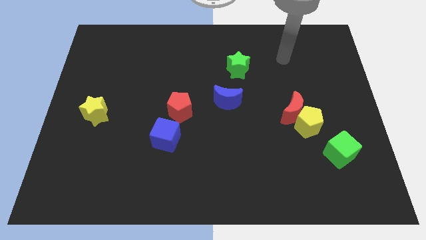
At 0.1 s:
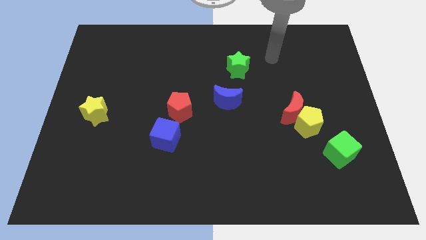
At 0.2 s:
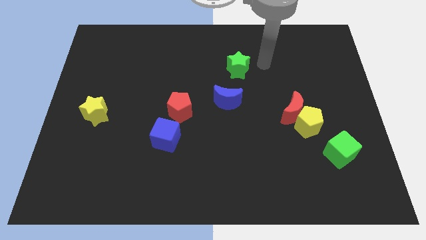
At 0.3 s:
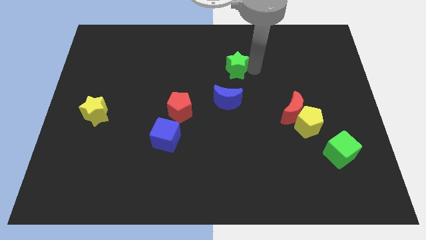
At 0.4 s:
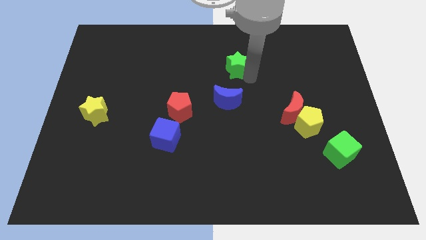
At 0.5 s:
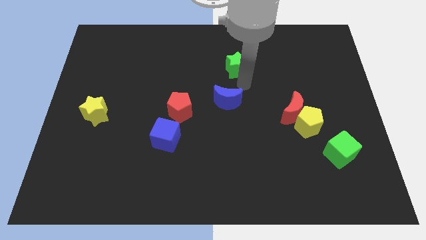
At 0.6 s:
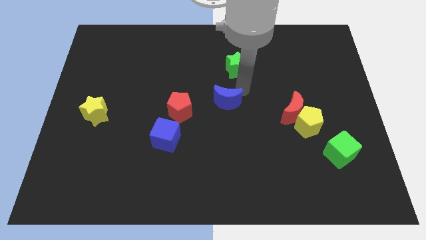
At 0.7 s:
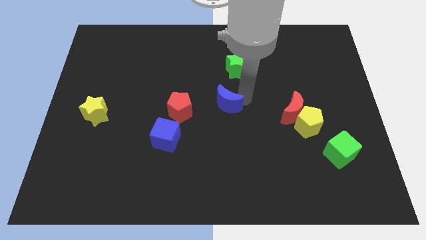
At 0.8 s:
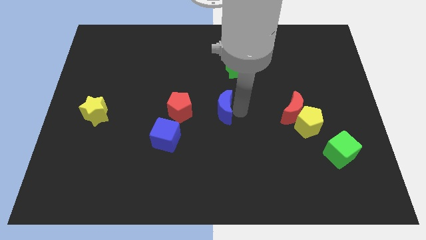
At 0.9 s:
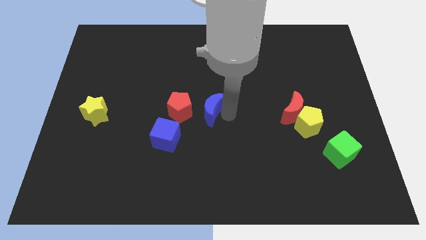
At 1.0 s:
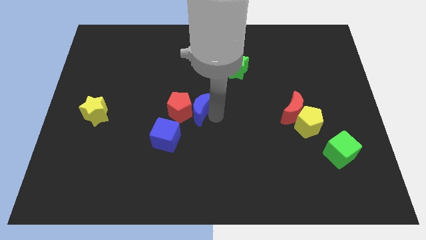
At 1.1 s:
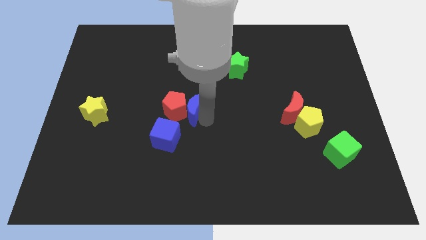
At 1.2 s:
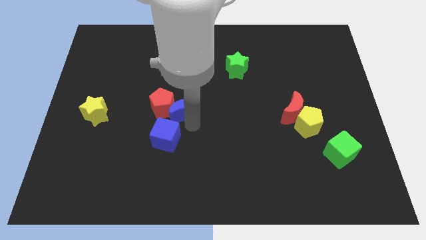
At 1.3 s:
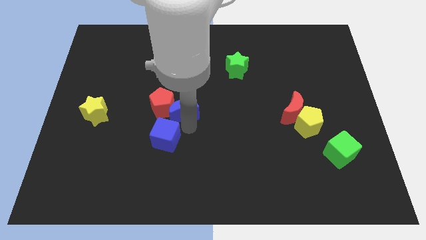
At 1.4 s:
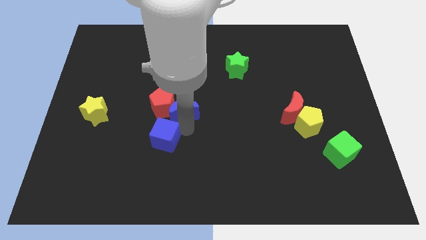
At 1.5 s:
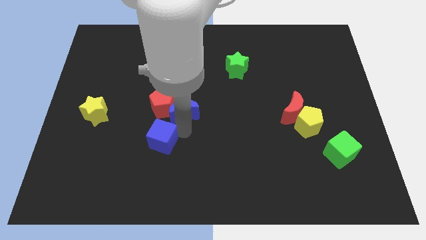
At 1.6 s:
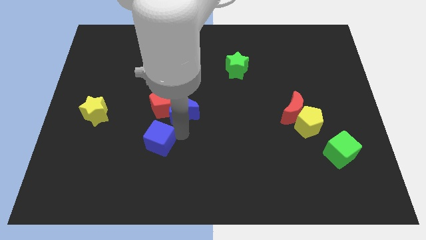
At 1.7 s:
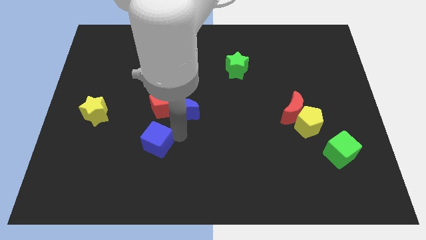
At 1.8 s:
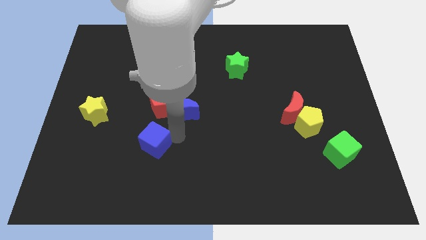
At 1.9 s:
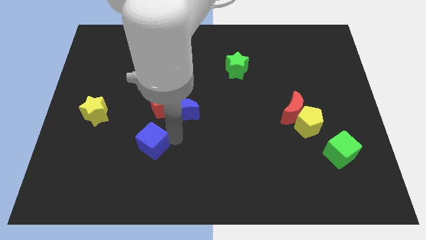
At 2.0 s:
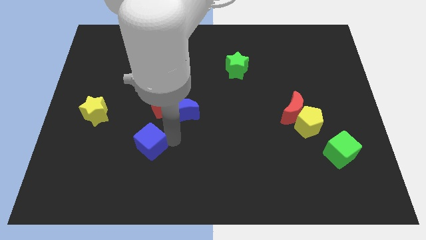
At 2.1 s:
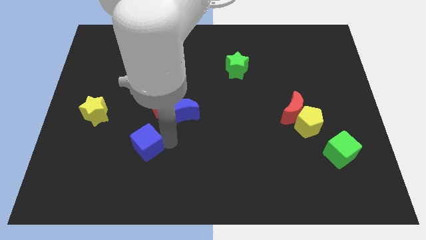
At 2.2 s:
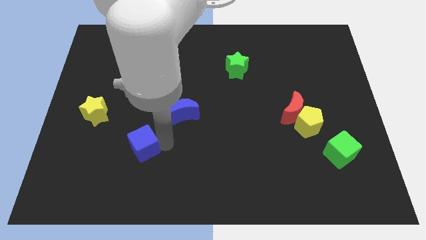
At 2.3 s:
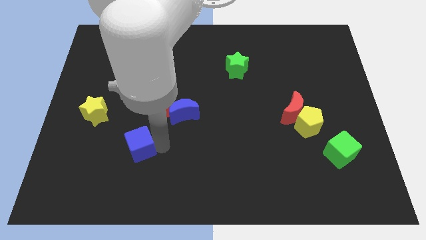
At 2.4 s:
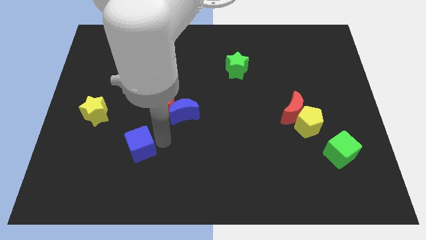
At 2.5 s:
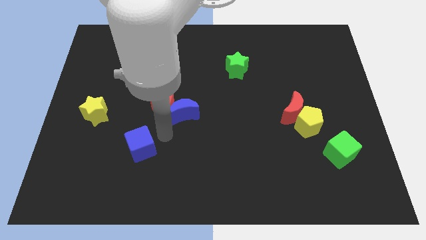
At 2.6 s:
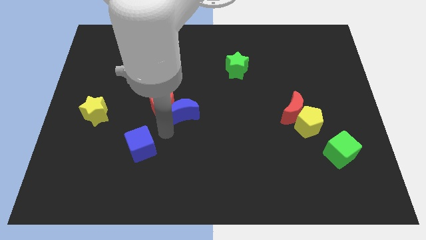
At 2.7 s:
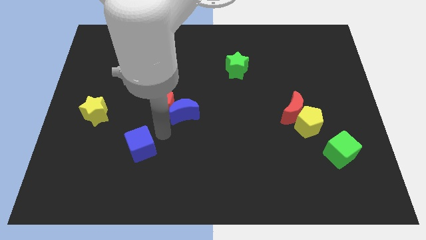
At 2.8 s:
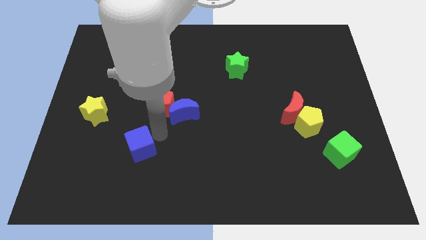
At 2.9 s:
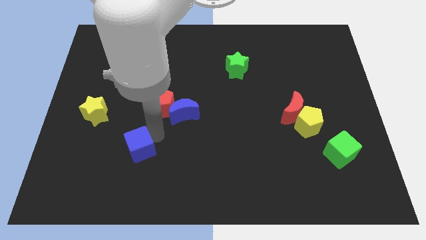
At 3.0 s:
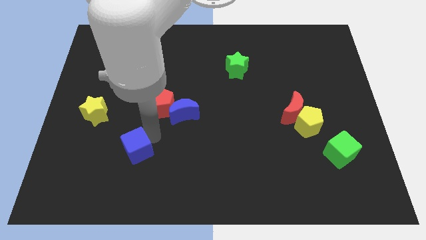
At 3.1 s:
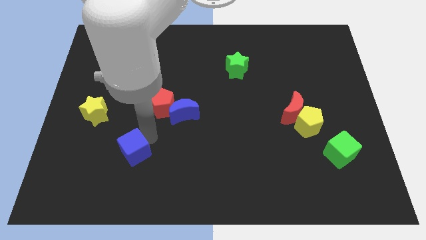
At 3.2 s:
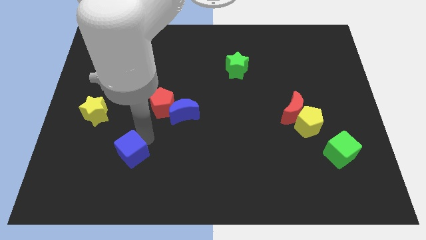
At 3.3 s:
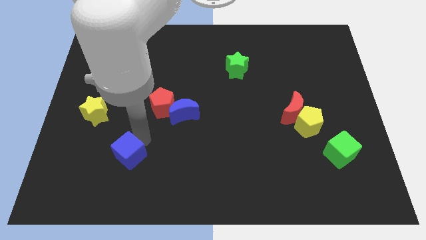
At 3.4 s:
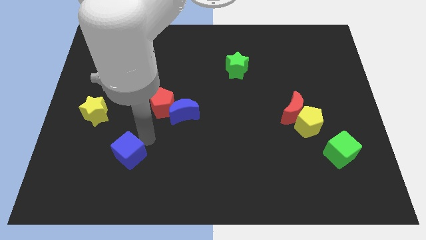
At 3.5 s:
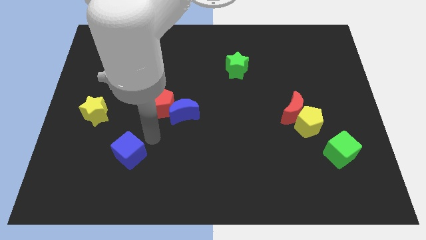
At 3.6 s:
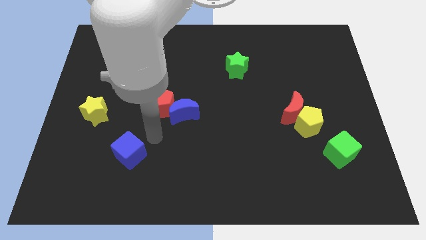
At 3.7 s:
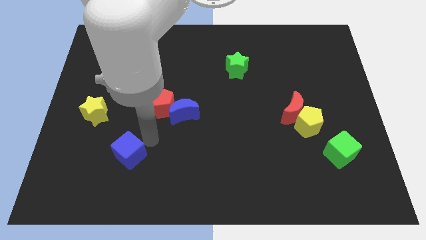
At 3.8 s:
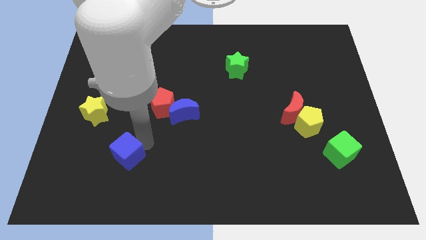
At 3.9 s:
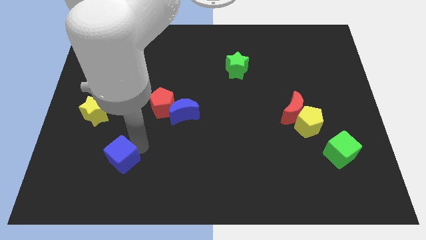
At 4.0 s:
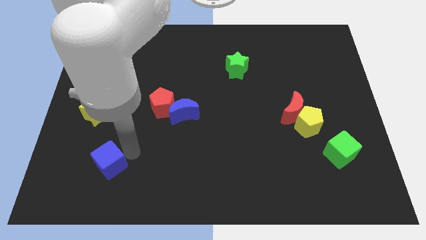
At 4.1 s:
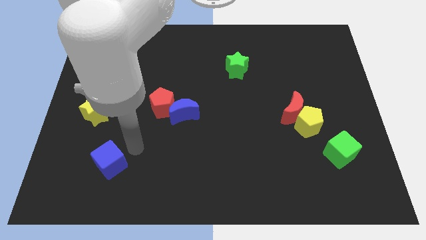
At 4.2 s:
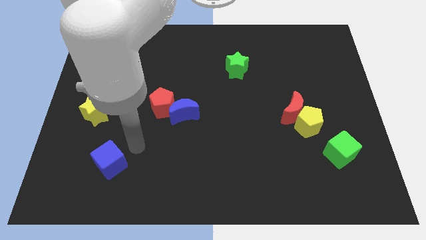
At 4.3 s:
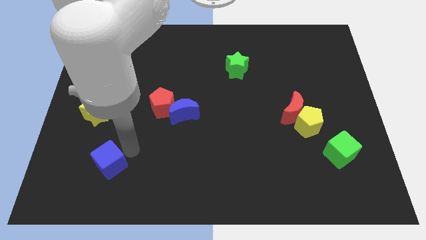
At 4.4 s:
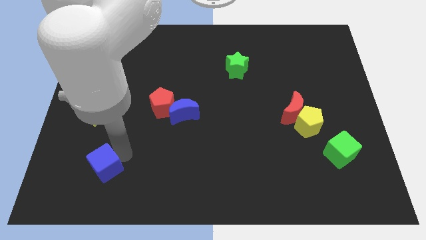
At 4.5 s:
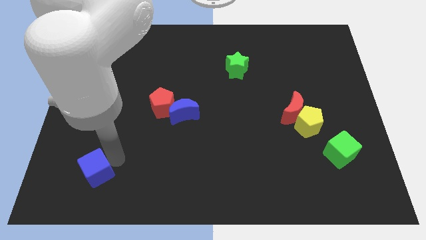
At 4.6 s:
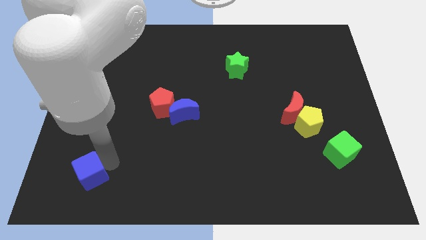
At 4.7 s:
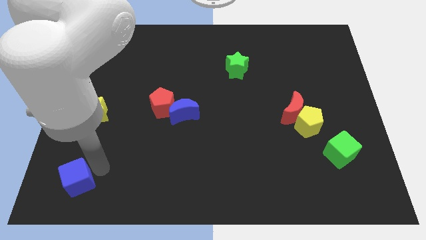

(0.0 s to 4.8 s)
put the blue cube to the bottom left corner

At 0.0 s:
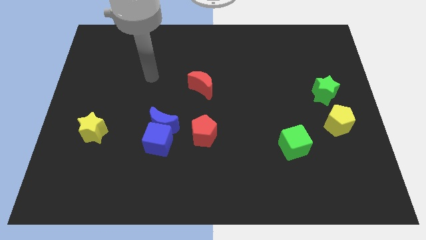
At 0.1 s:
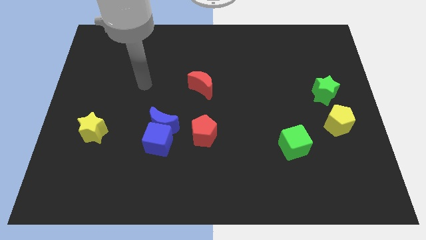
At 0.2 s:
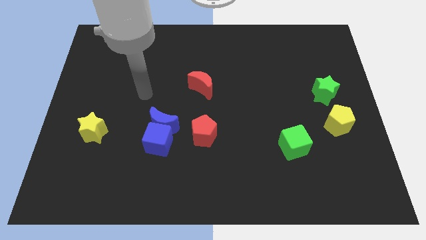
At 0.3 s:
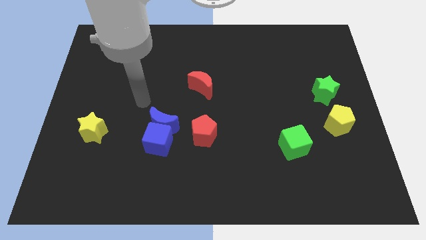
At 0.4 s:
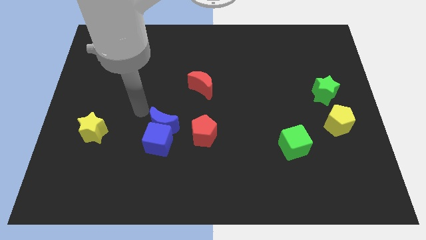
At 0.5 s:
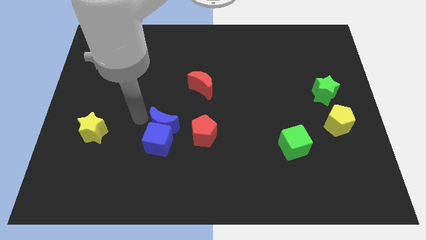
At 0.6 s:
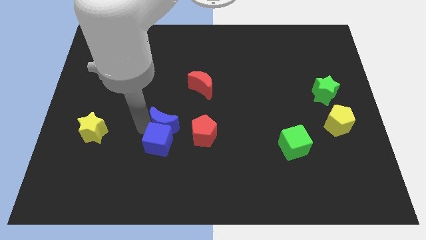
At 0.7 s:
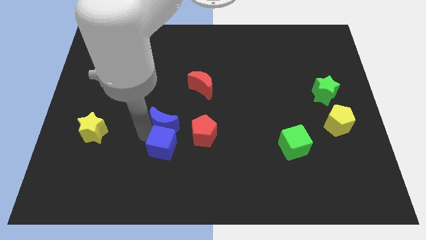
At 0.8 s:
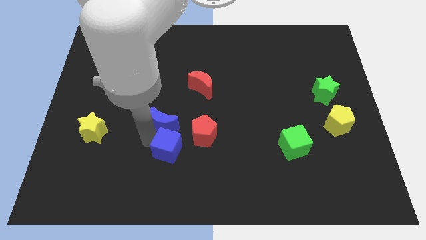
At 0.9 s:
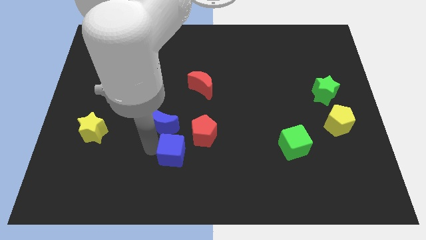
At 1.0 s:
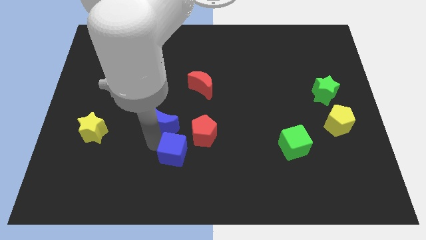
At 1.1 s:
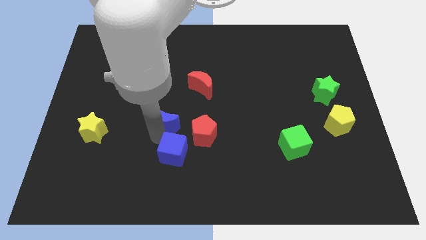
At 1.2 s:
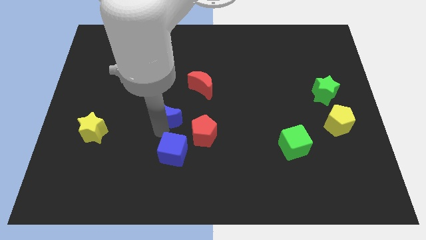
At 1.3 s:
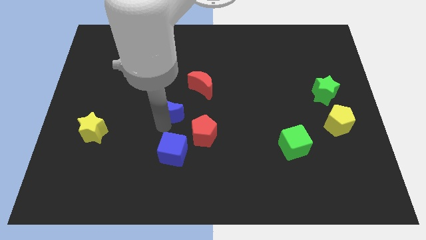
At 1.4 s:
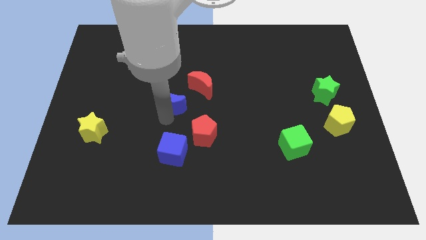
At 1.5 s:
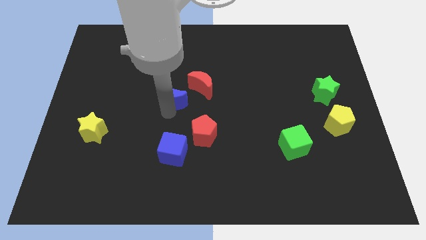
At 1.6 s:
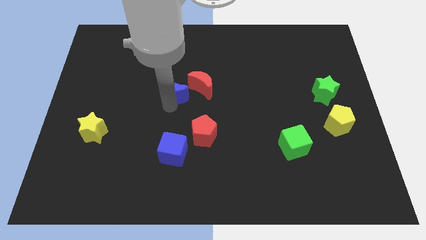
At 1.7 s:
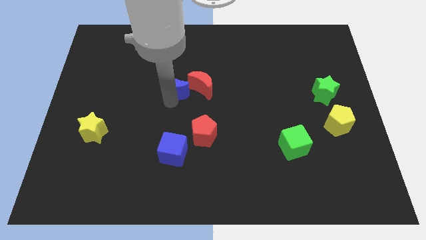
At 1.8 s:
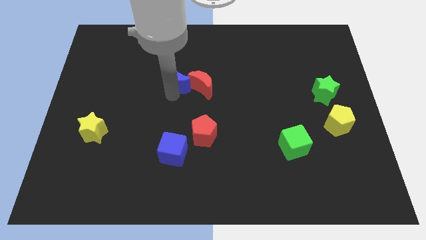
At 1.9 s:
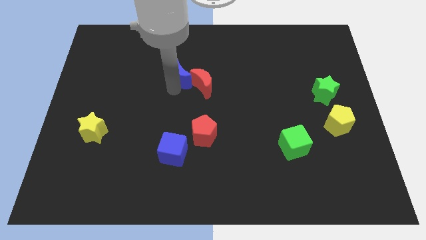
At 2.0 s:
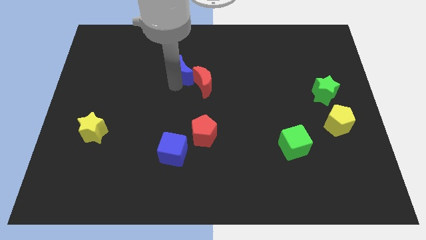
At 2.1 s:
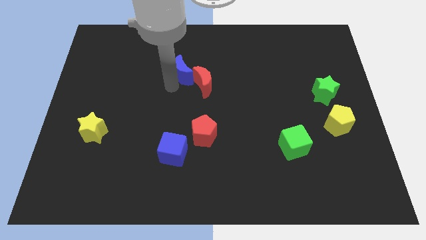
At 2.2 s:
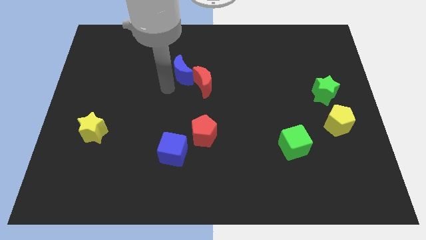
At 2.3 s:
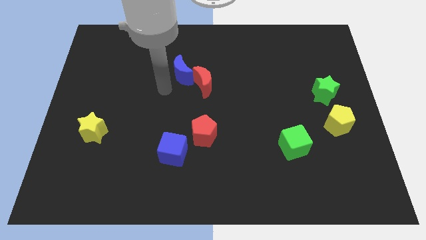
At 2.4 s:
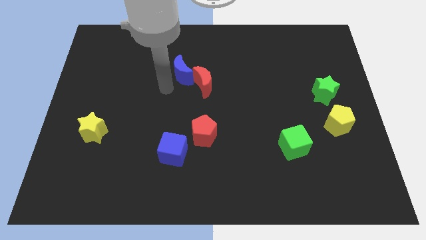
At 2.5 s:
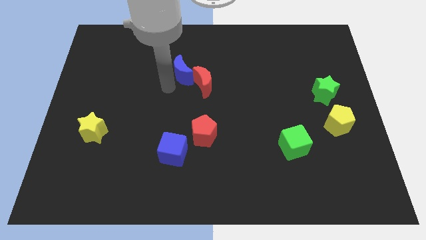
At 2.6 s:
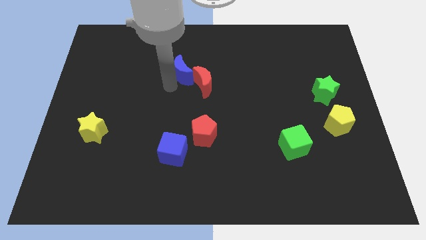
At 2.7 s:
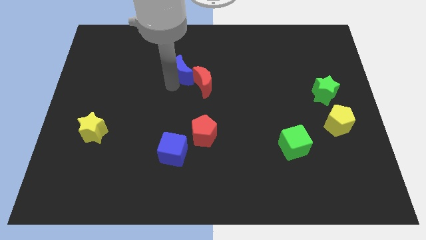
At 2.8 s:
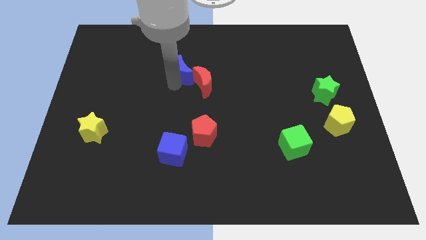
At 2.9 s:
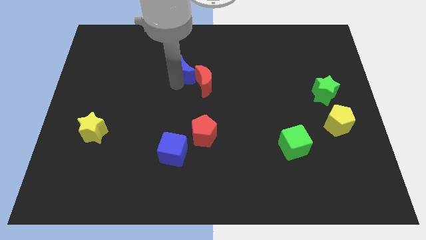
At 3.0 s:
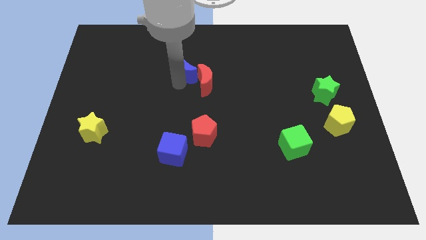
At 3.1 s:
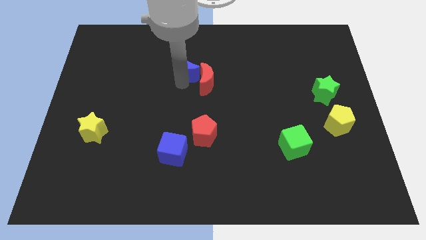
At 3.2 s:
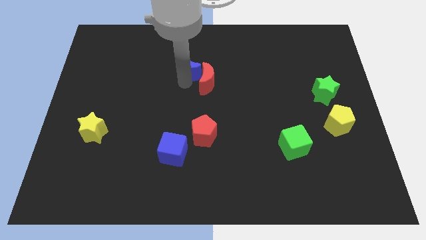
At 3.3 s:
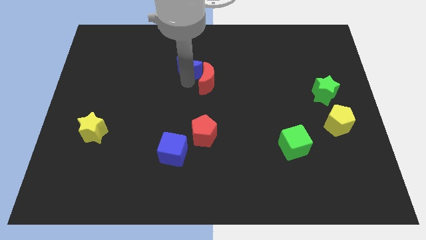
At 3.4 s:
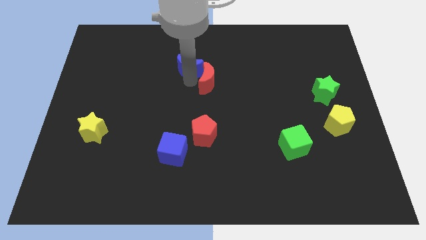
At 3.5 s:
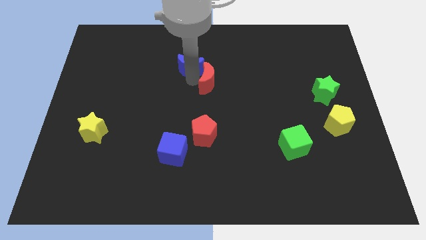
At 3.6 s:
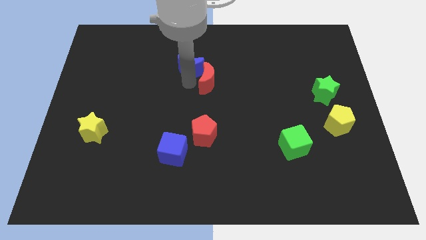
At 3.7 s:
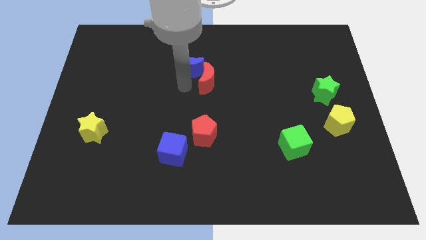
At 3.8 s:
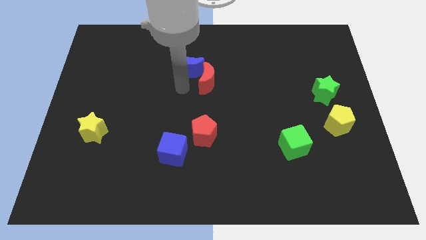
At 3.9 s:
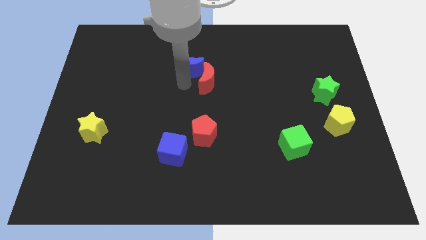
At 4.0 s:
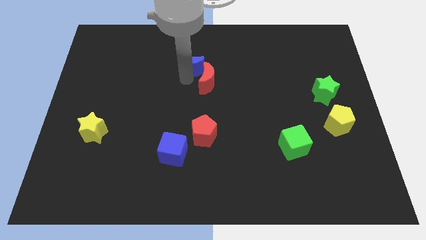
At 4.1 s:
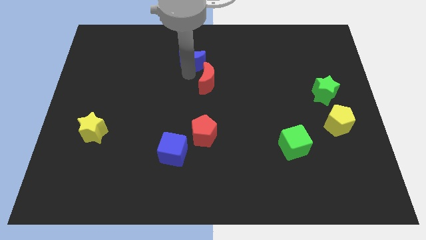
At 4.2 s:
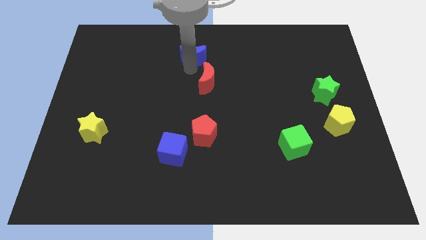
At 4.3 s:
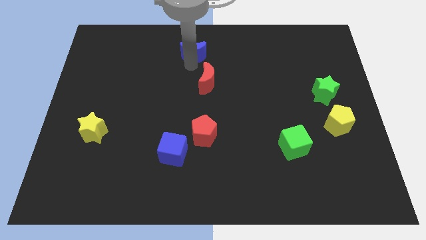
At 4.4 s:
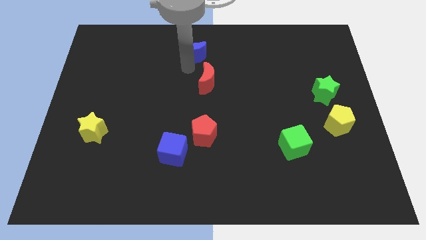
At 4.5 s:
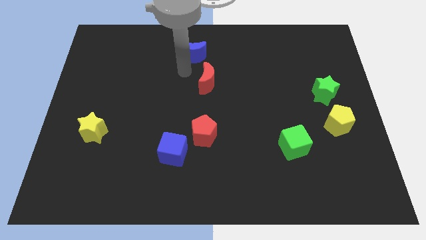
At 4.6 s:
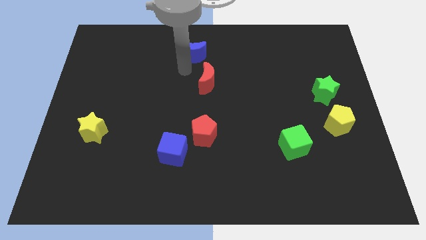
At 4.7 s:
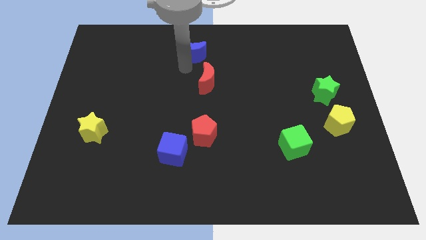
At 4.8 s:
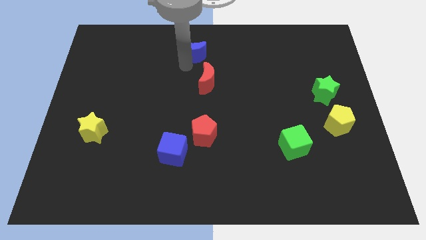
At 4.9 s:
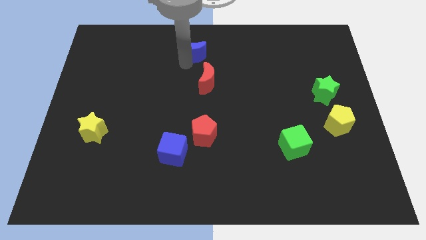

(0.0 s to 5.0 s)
push the blue moon to the top side
